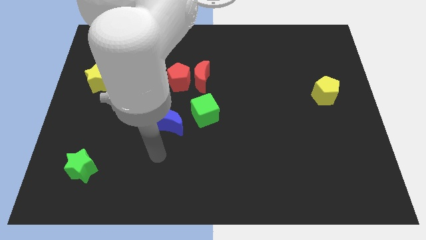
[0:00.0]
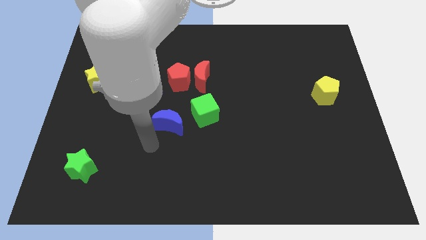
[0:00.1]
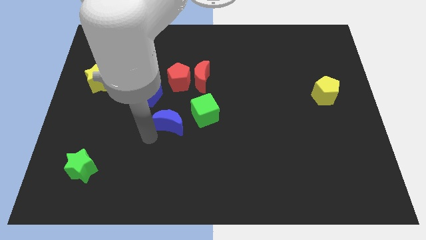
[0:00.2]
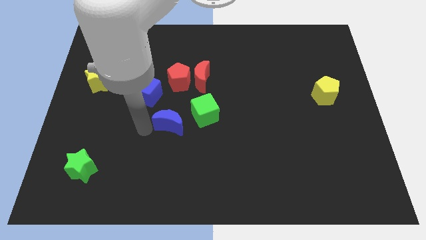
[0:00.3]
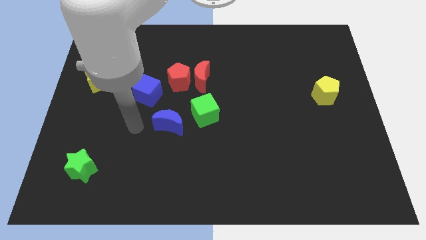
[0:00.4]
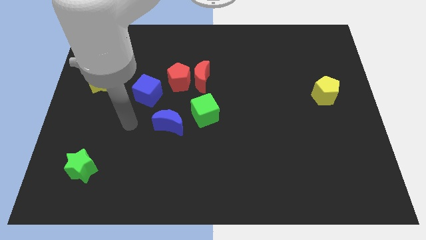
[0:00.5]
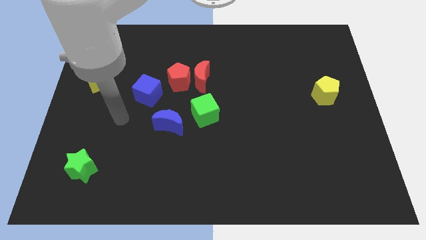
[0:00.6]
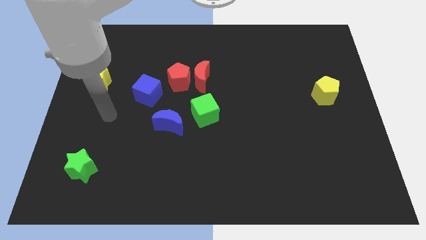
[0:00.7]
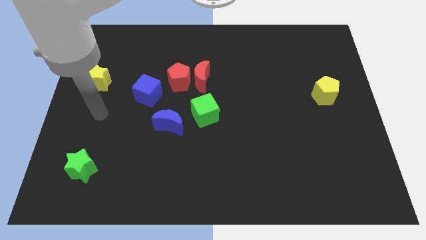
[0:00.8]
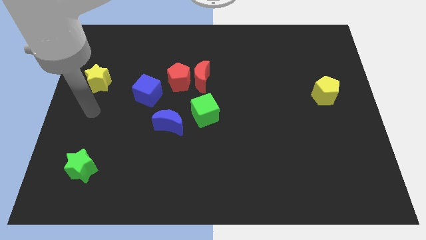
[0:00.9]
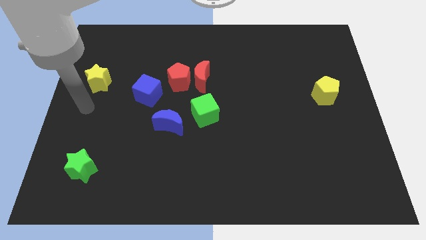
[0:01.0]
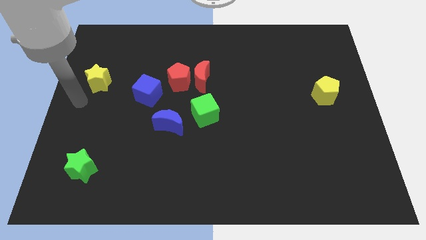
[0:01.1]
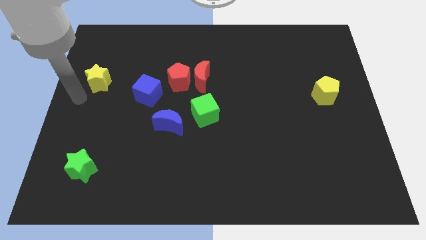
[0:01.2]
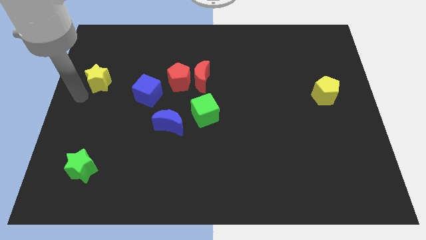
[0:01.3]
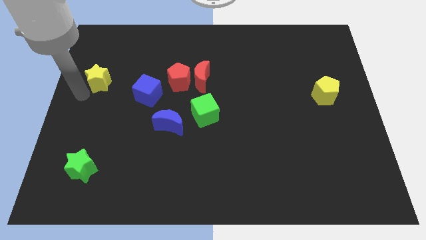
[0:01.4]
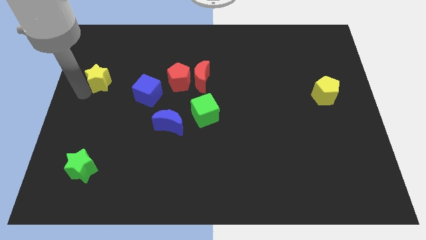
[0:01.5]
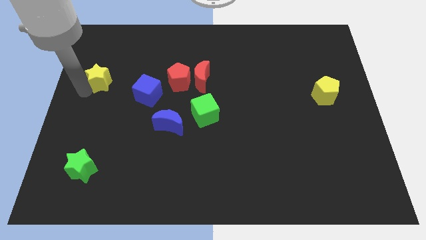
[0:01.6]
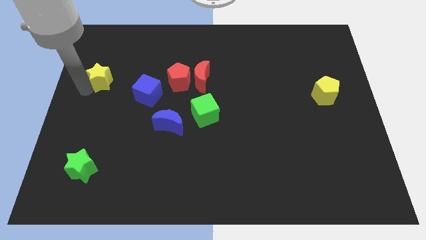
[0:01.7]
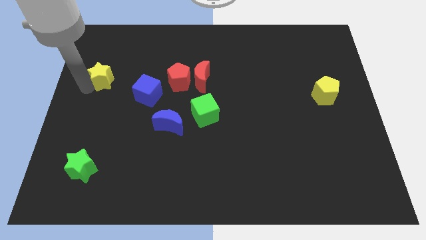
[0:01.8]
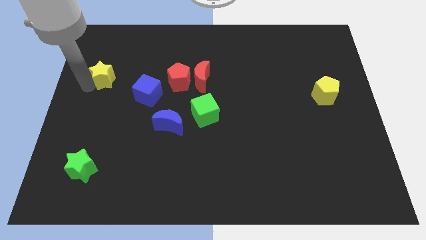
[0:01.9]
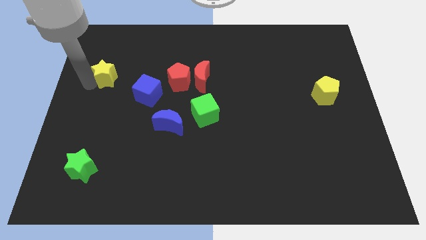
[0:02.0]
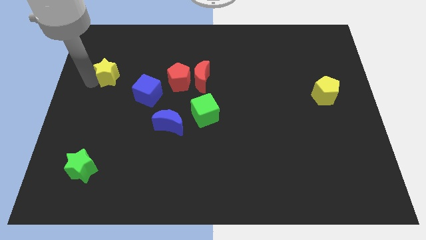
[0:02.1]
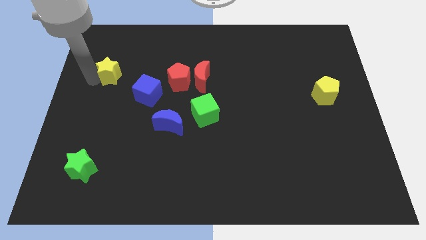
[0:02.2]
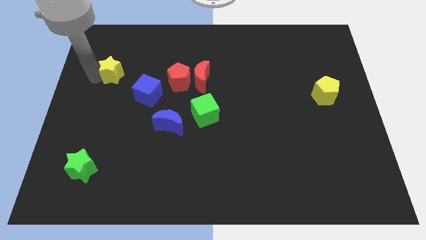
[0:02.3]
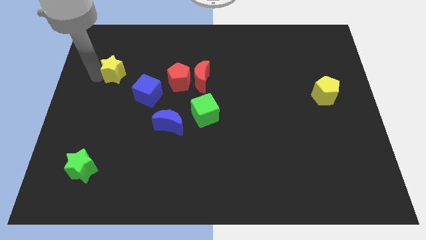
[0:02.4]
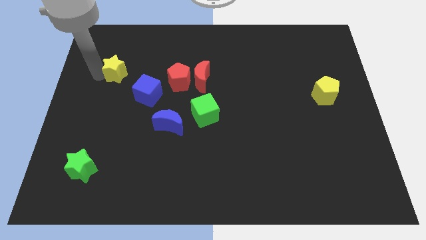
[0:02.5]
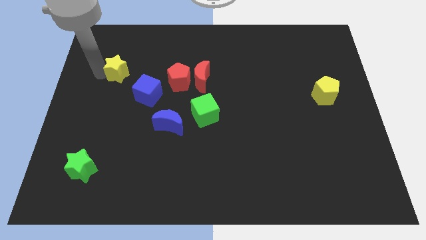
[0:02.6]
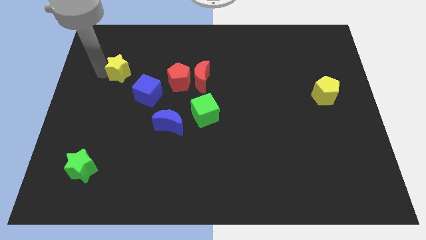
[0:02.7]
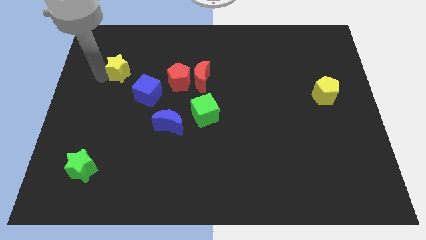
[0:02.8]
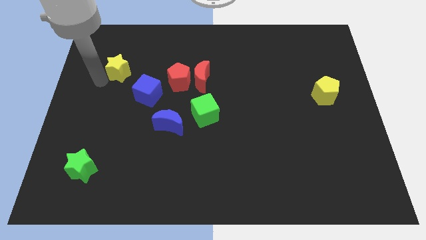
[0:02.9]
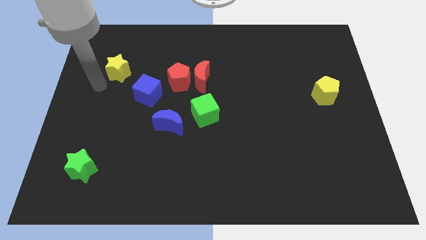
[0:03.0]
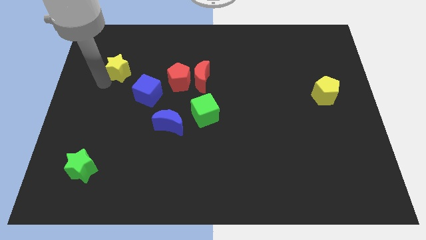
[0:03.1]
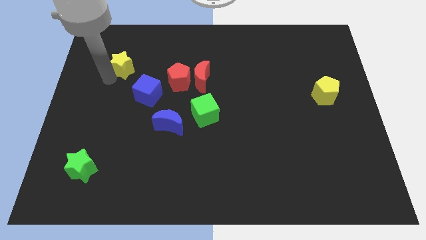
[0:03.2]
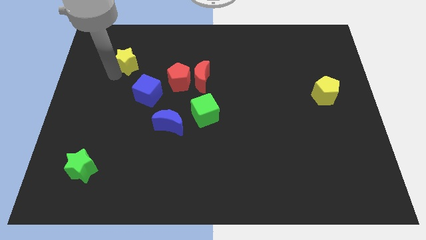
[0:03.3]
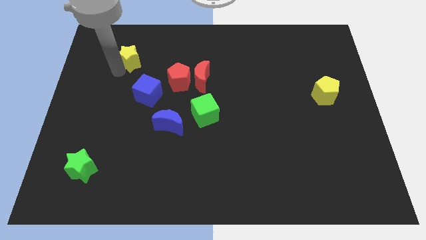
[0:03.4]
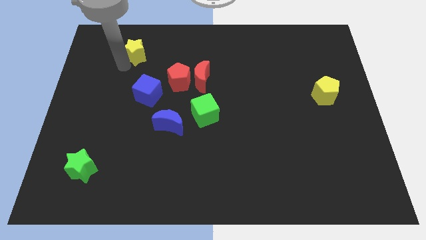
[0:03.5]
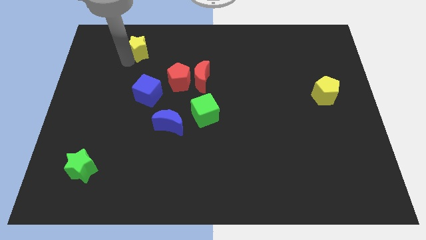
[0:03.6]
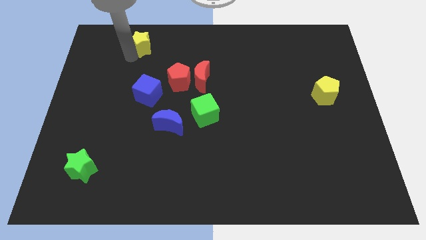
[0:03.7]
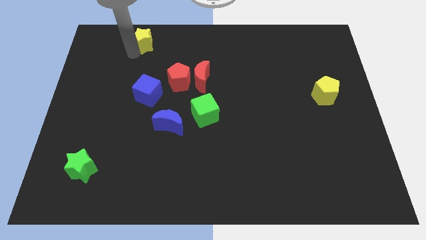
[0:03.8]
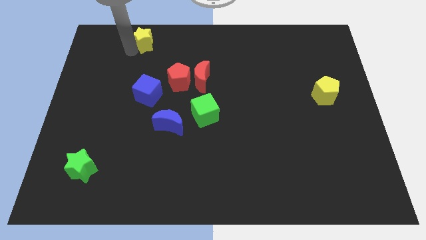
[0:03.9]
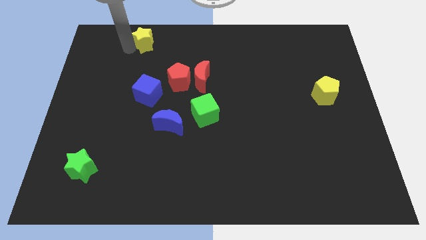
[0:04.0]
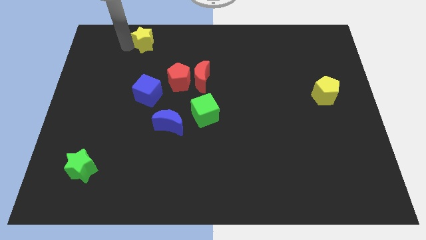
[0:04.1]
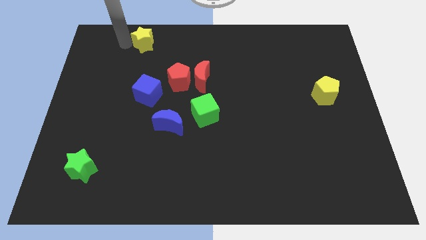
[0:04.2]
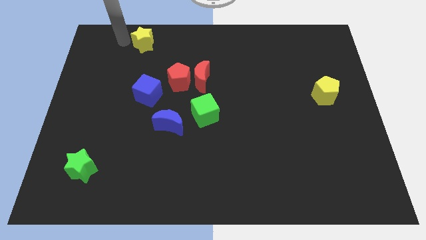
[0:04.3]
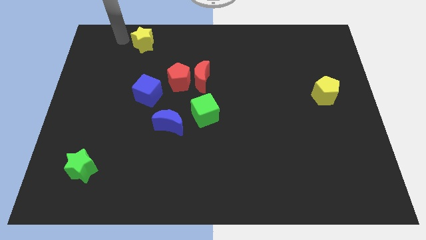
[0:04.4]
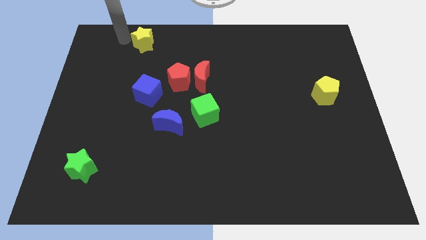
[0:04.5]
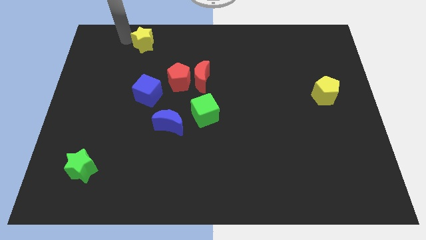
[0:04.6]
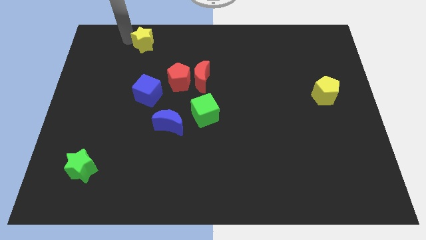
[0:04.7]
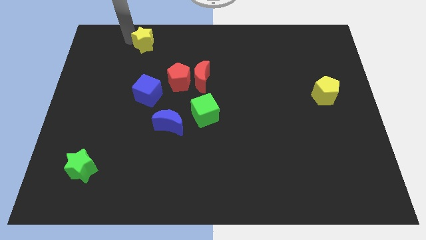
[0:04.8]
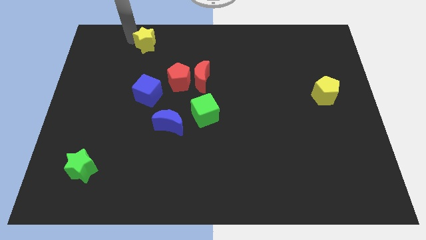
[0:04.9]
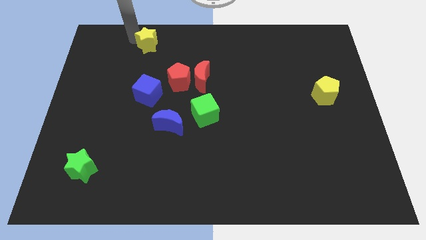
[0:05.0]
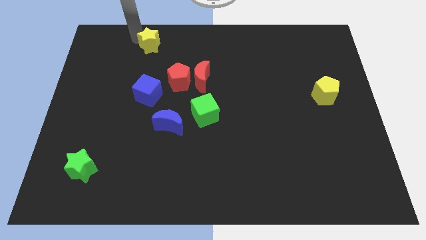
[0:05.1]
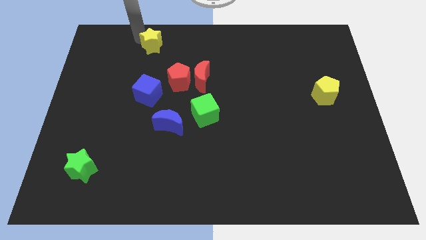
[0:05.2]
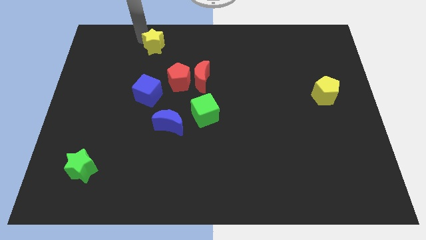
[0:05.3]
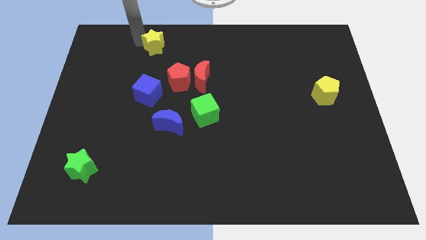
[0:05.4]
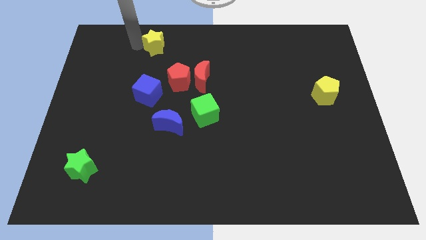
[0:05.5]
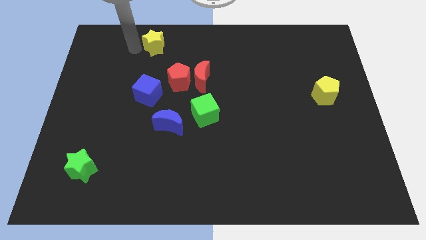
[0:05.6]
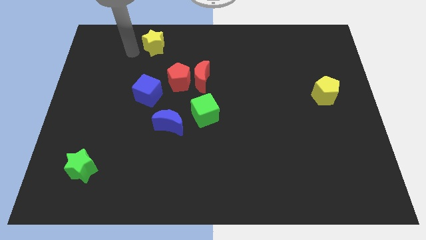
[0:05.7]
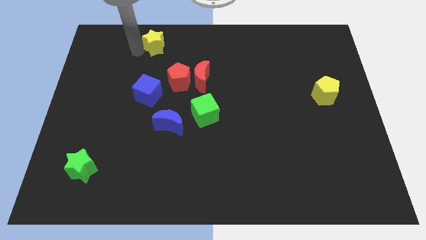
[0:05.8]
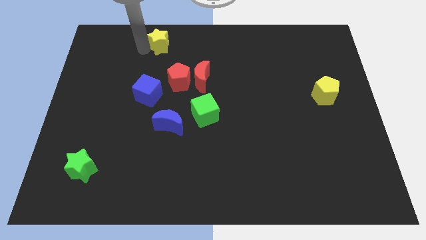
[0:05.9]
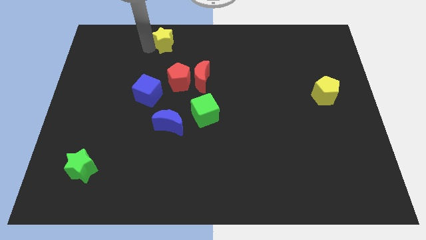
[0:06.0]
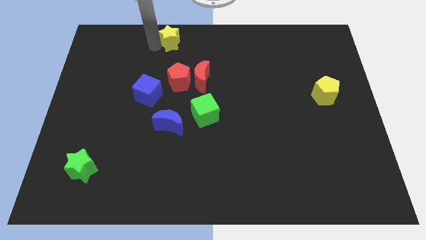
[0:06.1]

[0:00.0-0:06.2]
move the yellow star to the top side

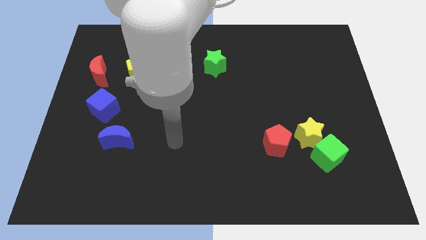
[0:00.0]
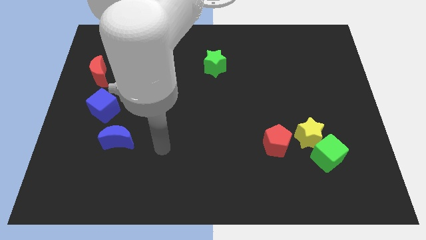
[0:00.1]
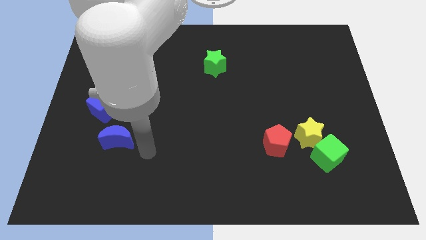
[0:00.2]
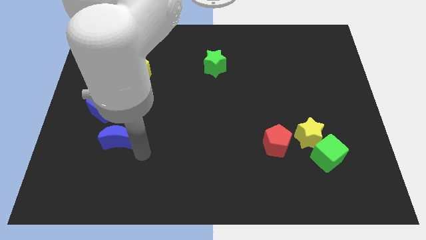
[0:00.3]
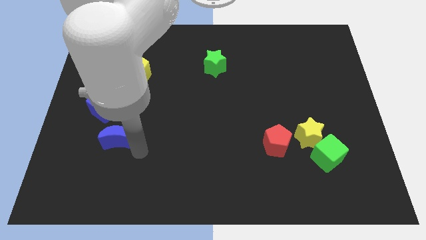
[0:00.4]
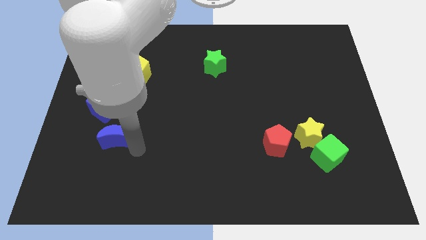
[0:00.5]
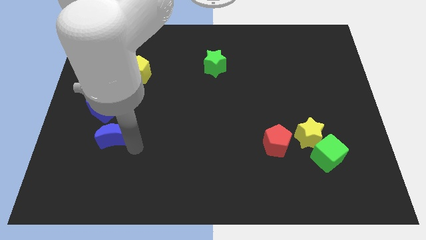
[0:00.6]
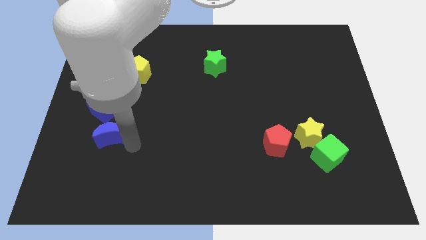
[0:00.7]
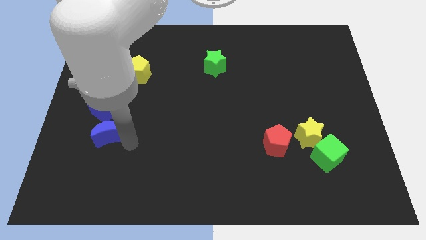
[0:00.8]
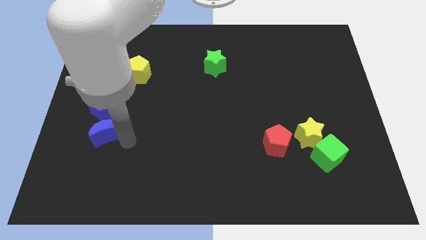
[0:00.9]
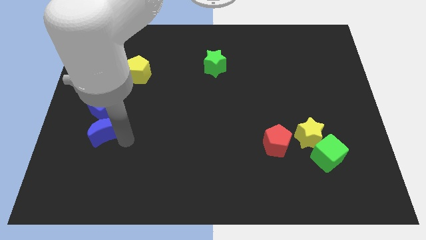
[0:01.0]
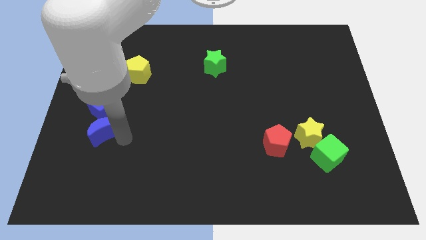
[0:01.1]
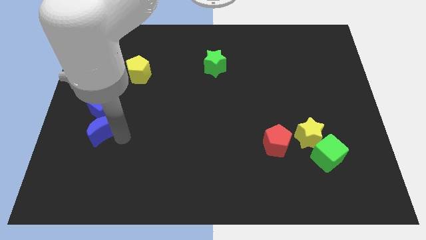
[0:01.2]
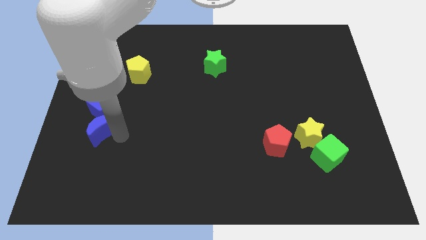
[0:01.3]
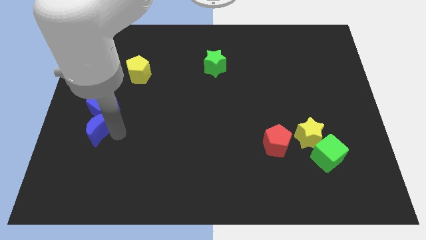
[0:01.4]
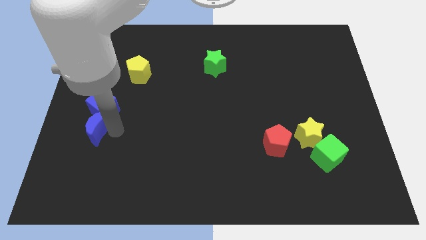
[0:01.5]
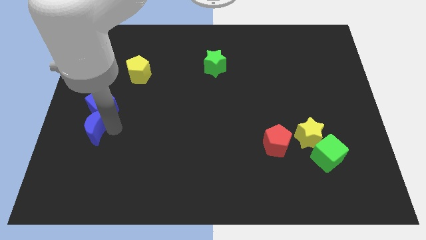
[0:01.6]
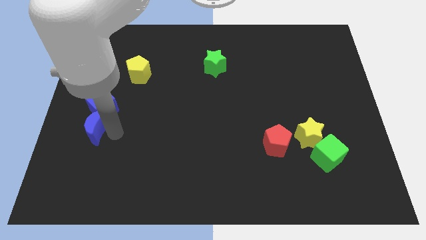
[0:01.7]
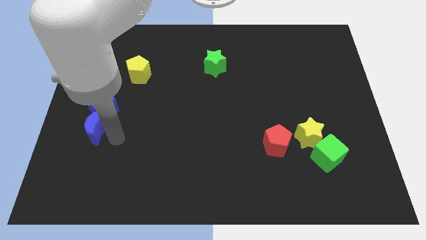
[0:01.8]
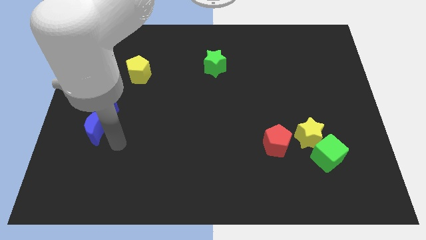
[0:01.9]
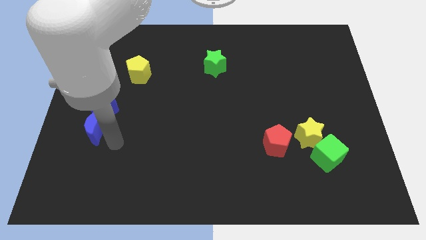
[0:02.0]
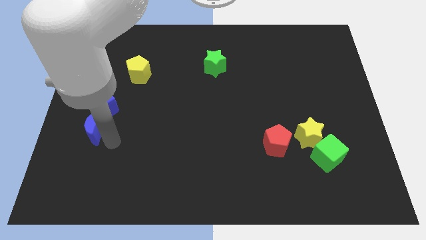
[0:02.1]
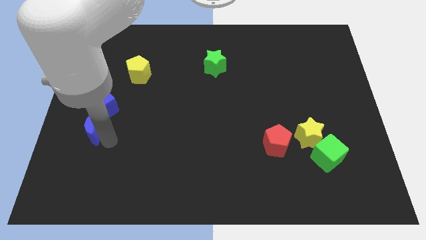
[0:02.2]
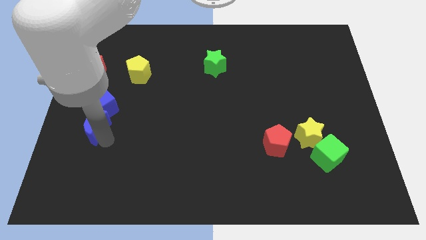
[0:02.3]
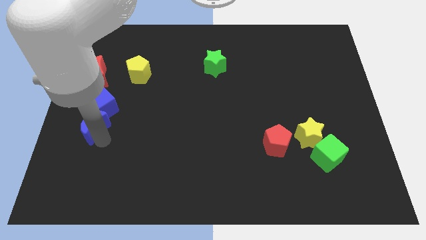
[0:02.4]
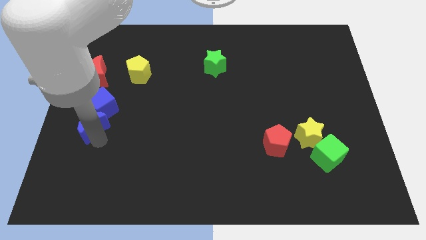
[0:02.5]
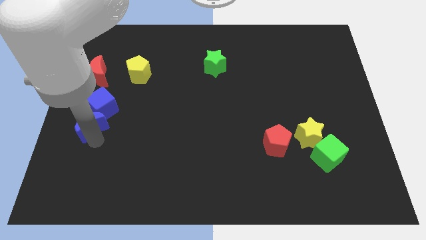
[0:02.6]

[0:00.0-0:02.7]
slide the blue moon to the left side of the board
